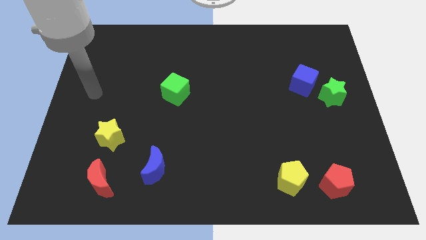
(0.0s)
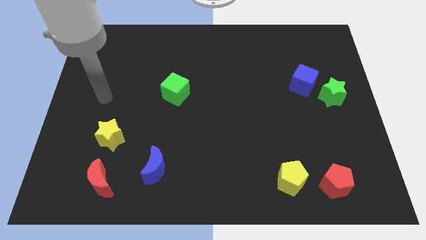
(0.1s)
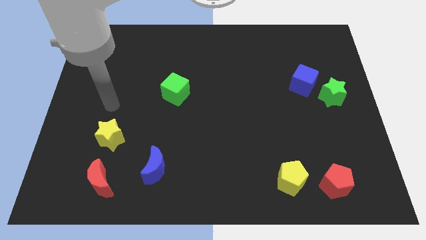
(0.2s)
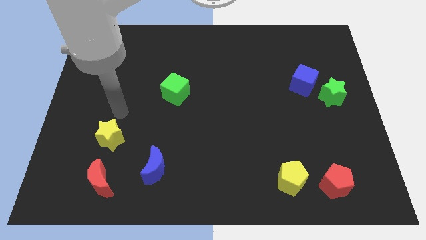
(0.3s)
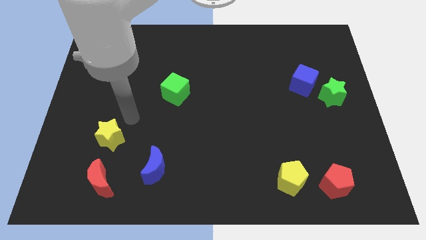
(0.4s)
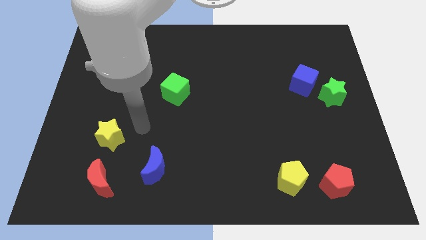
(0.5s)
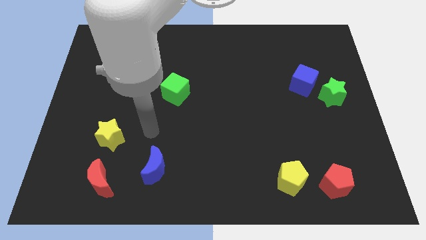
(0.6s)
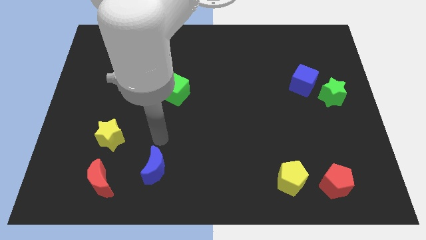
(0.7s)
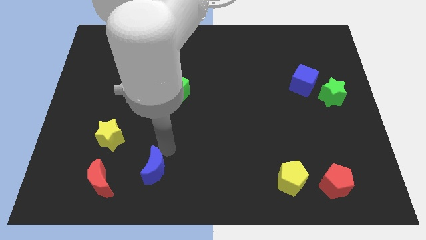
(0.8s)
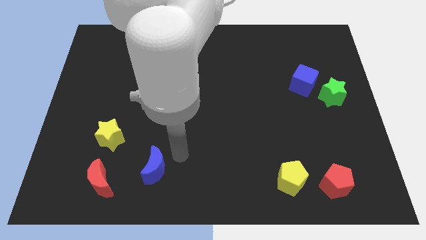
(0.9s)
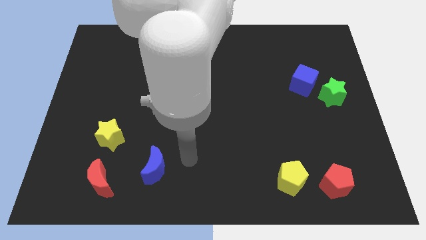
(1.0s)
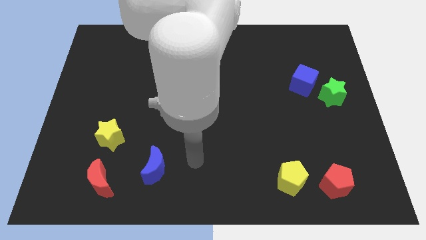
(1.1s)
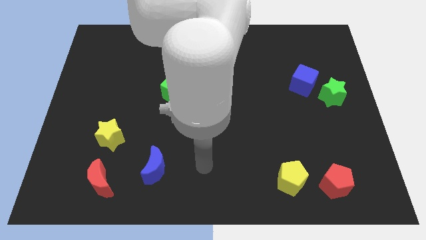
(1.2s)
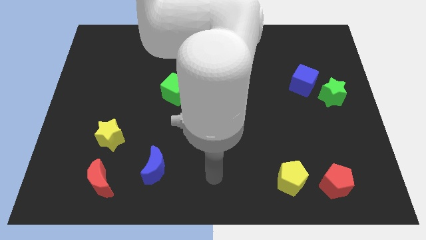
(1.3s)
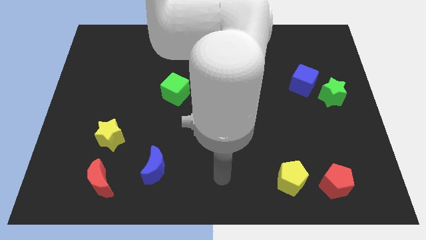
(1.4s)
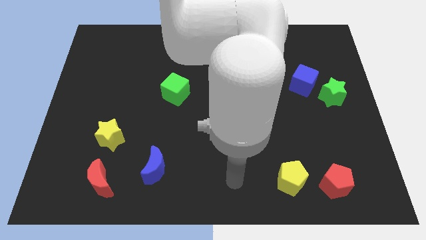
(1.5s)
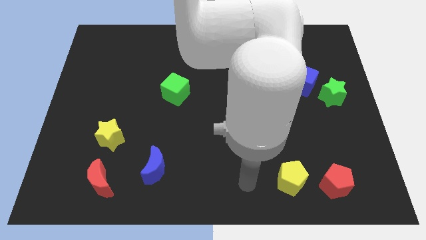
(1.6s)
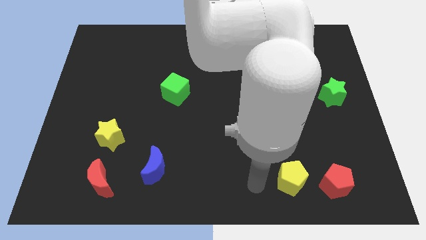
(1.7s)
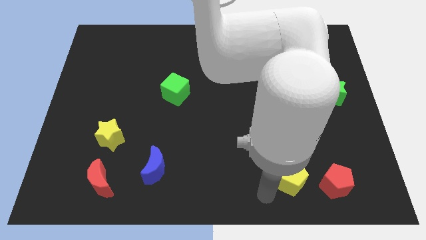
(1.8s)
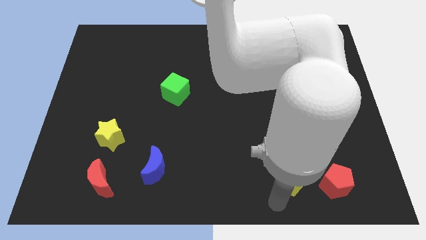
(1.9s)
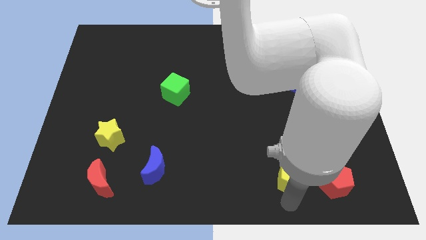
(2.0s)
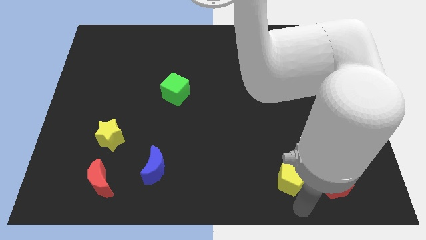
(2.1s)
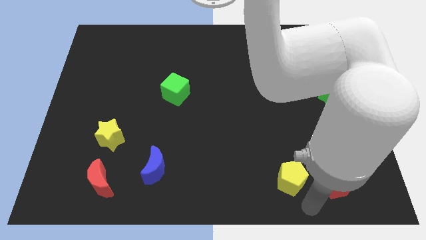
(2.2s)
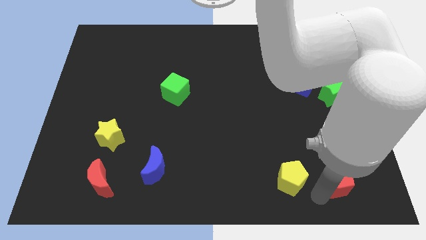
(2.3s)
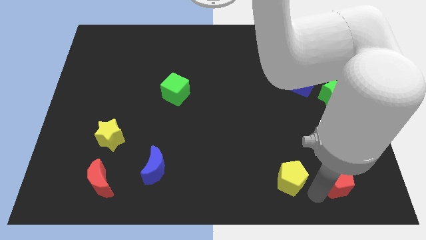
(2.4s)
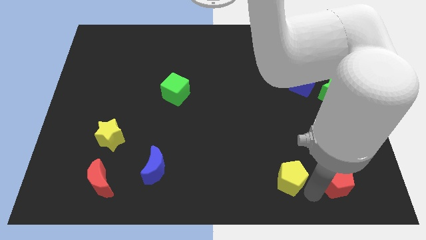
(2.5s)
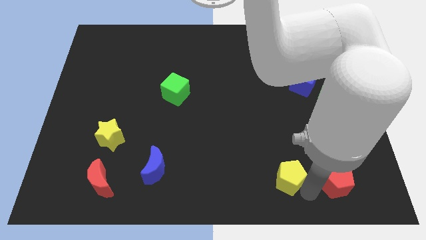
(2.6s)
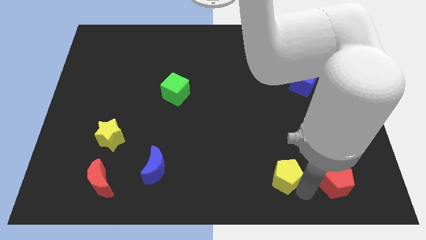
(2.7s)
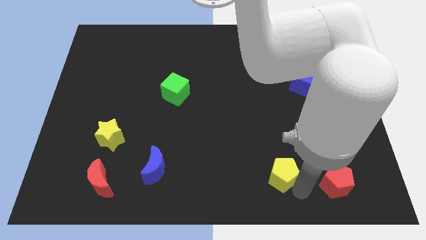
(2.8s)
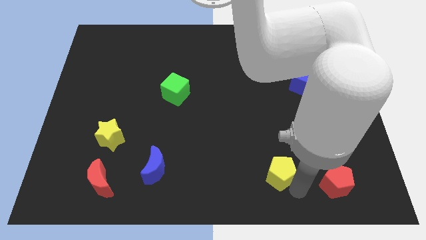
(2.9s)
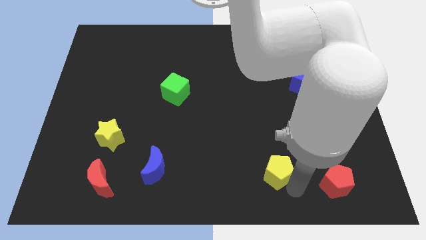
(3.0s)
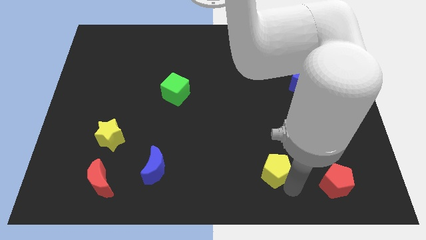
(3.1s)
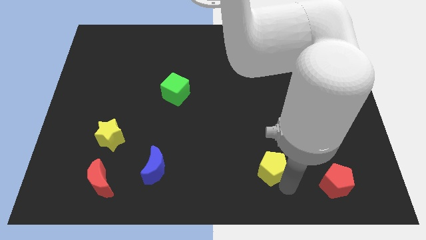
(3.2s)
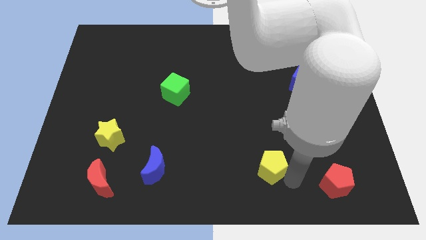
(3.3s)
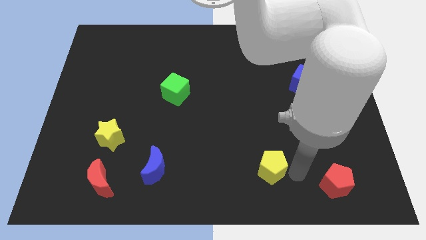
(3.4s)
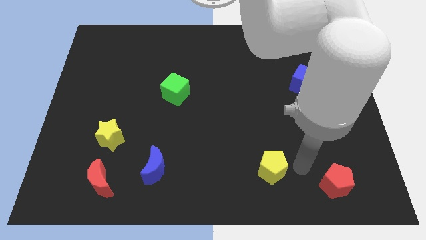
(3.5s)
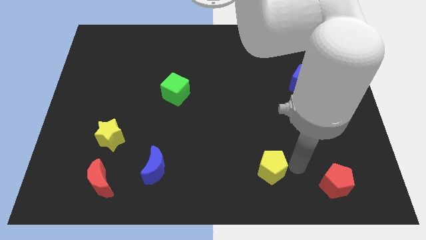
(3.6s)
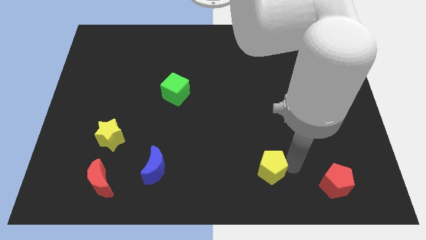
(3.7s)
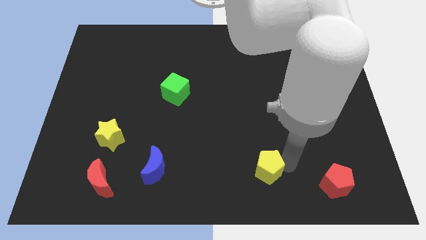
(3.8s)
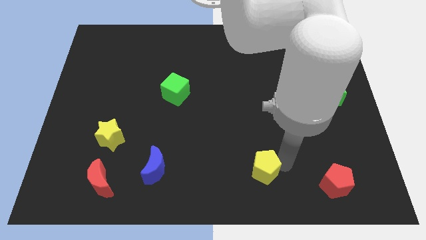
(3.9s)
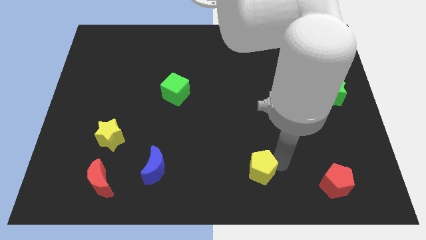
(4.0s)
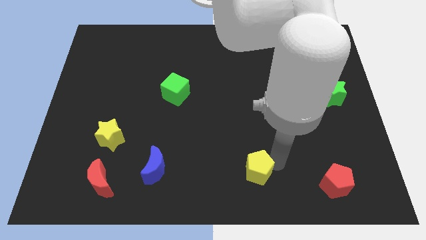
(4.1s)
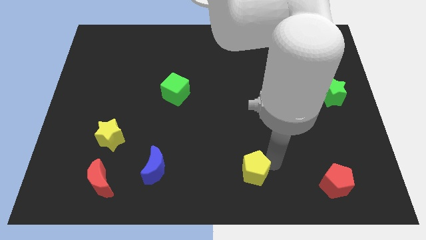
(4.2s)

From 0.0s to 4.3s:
push the yellow pentagon a little to the left

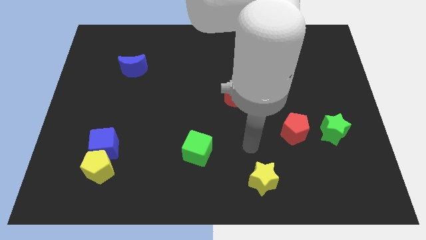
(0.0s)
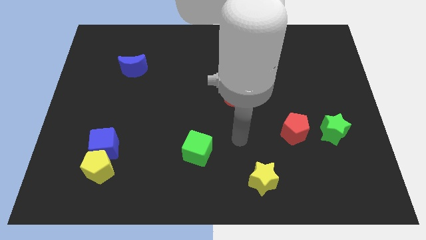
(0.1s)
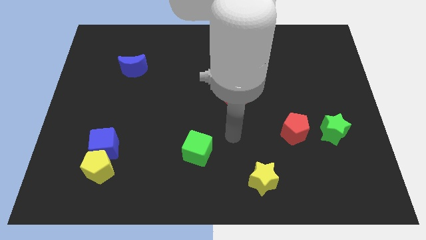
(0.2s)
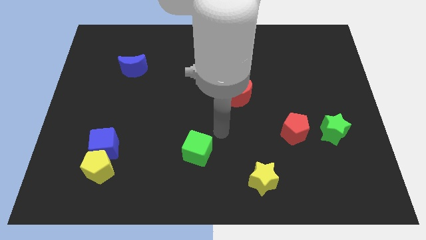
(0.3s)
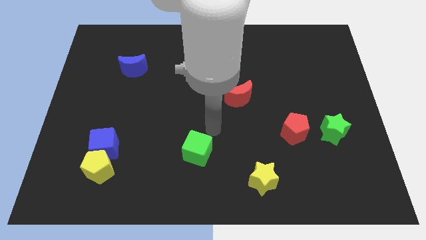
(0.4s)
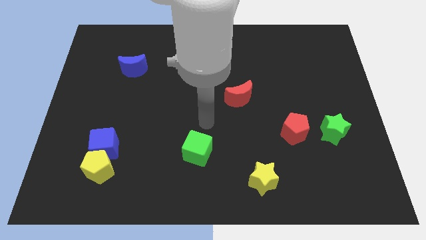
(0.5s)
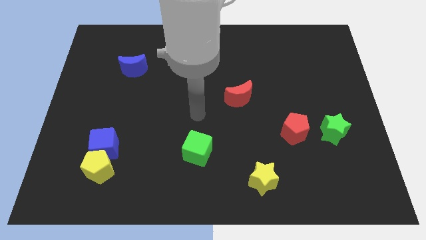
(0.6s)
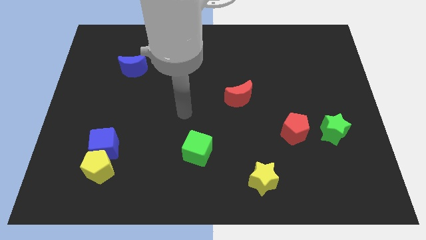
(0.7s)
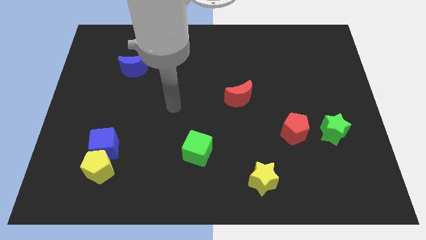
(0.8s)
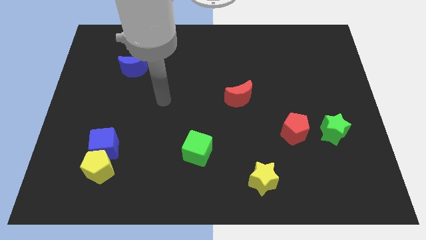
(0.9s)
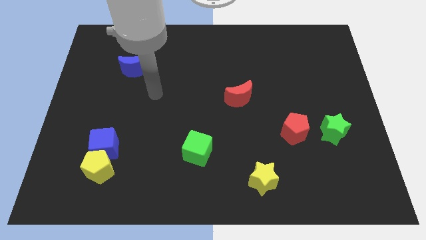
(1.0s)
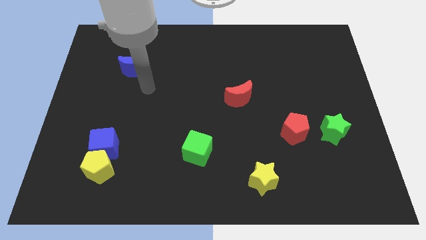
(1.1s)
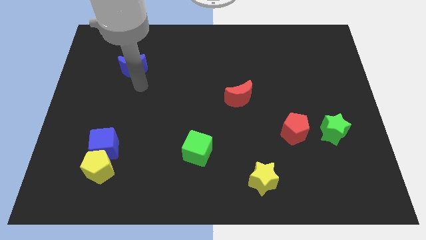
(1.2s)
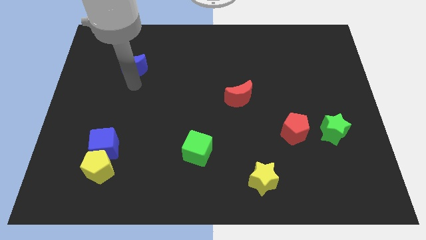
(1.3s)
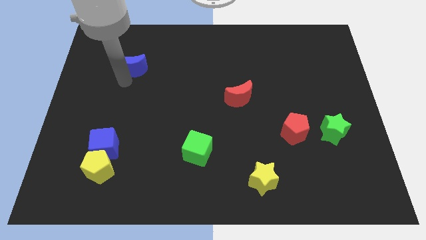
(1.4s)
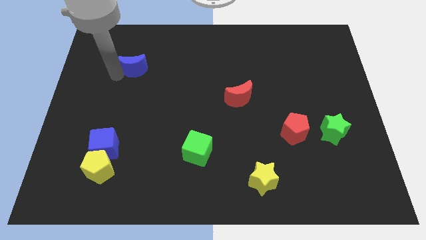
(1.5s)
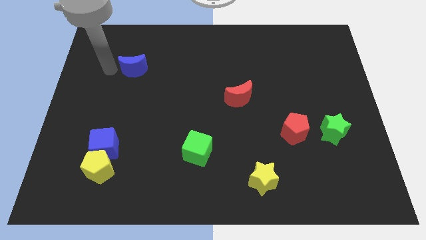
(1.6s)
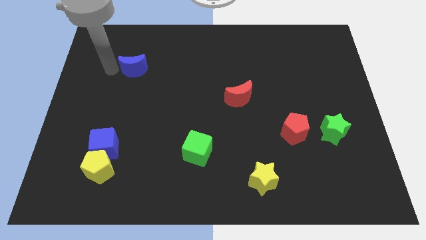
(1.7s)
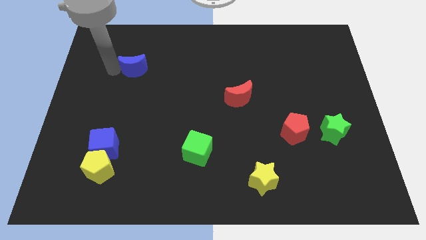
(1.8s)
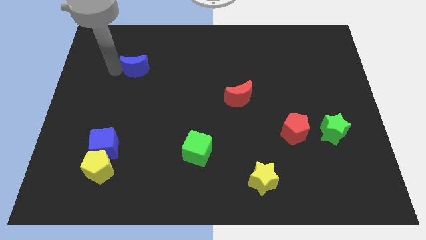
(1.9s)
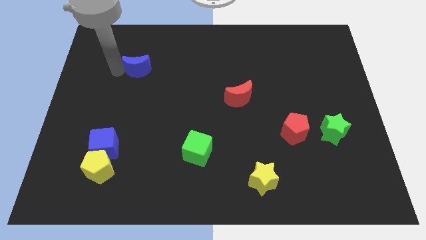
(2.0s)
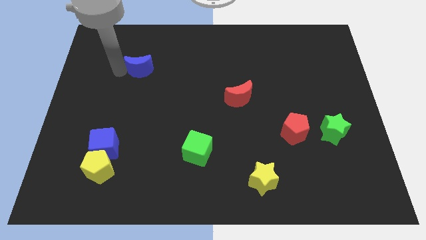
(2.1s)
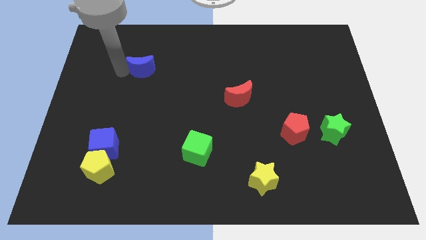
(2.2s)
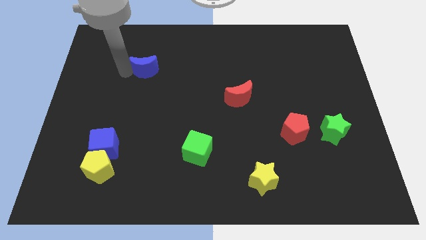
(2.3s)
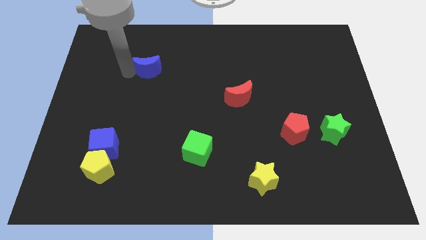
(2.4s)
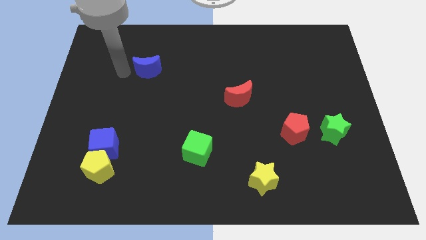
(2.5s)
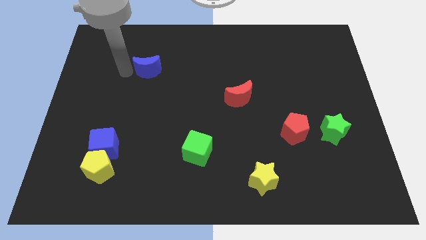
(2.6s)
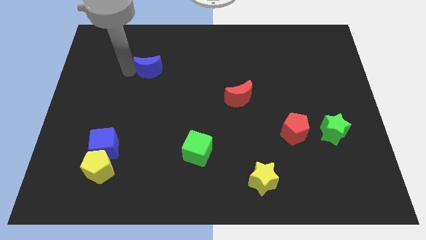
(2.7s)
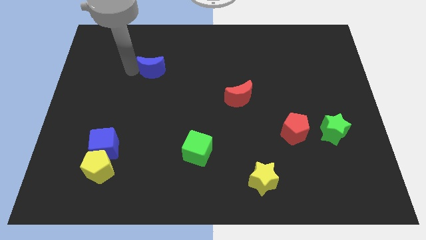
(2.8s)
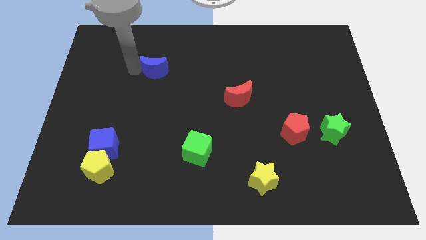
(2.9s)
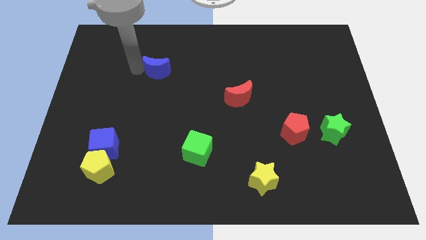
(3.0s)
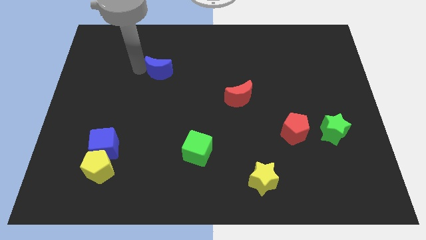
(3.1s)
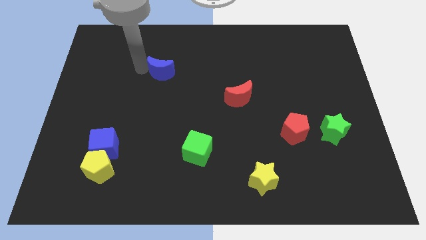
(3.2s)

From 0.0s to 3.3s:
slide the blue moon right a little bit

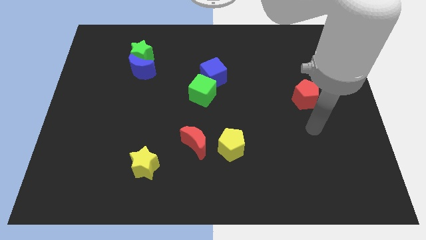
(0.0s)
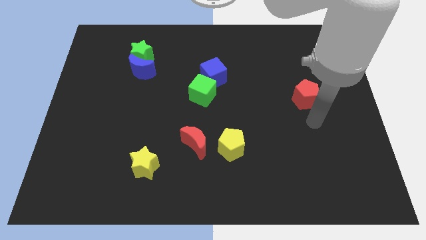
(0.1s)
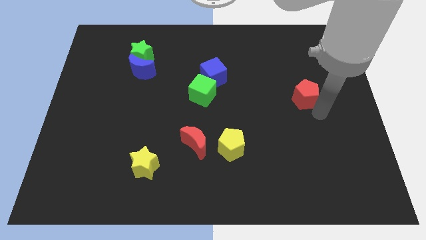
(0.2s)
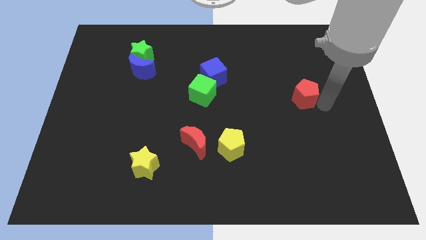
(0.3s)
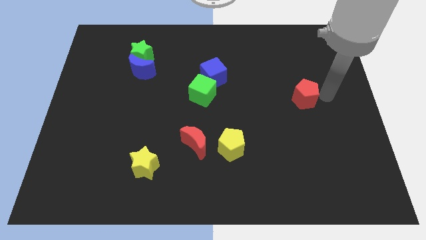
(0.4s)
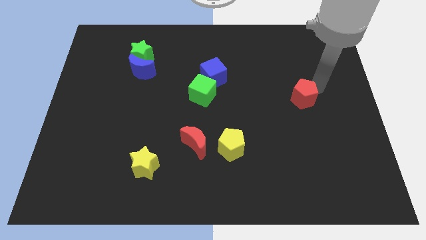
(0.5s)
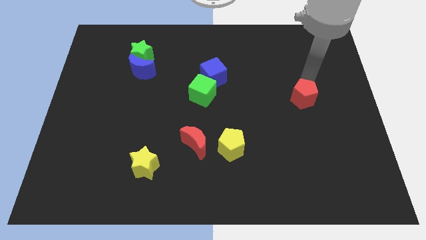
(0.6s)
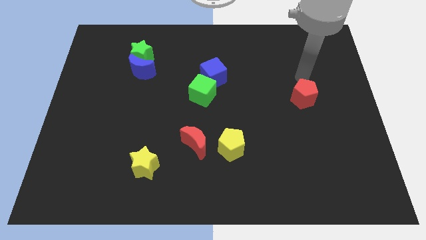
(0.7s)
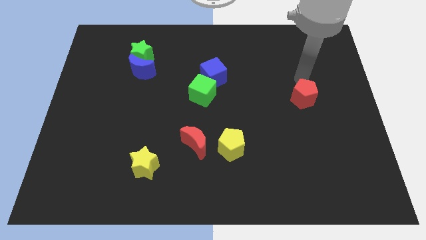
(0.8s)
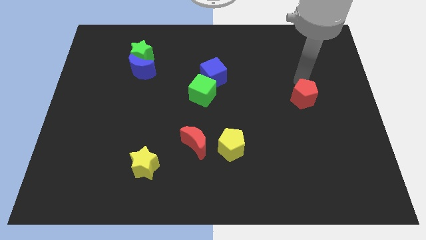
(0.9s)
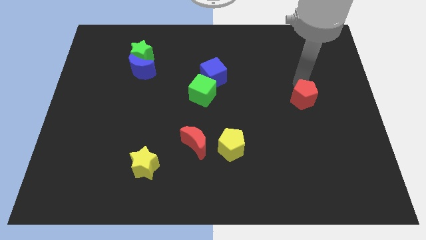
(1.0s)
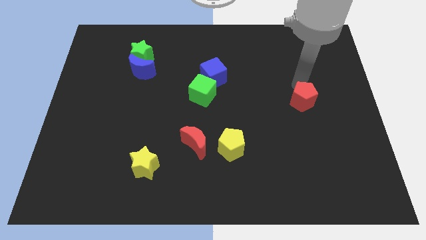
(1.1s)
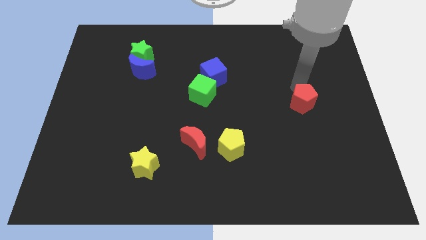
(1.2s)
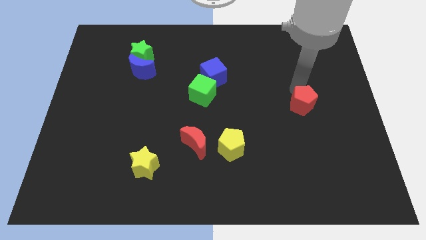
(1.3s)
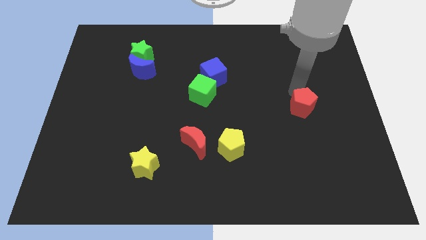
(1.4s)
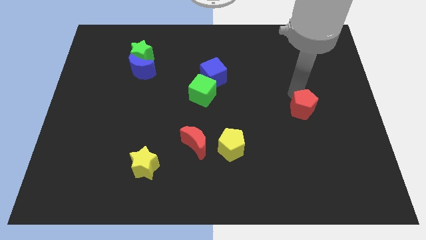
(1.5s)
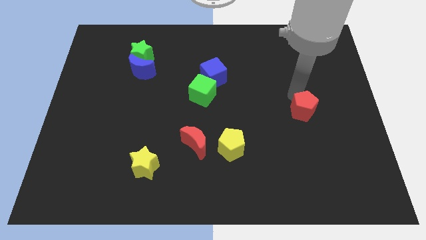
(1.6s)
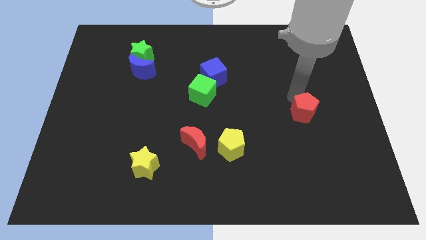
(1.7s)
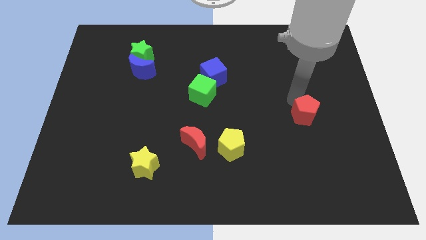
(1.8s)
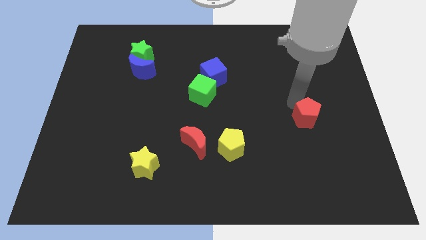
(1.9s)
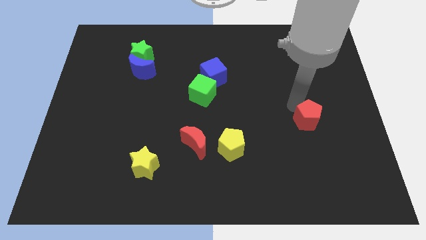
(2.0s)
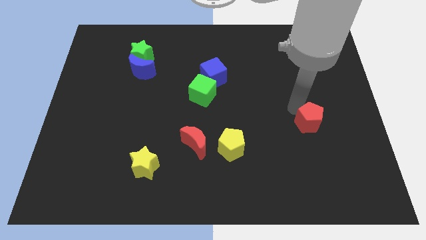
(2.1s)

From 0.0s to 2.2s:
slide the red pentagon down a little bit
